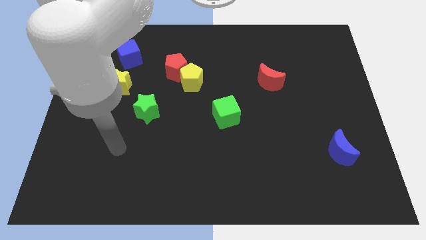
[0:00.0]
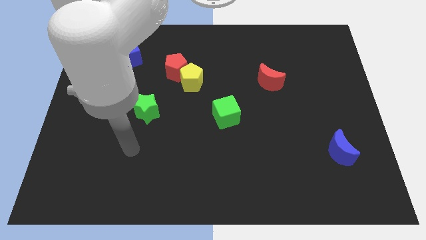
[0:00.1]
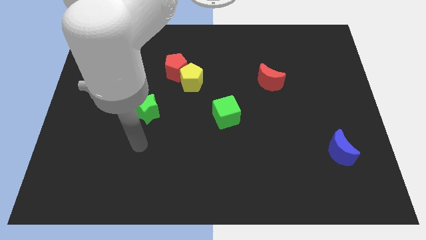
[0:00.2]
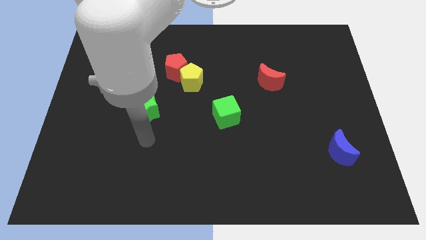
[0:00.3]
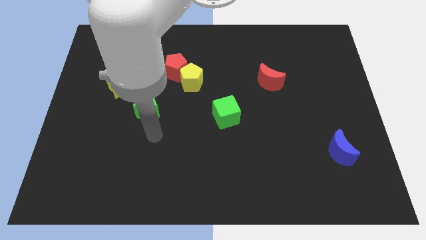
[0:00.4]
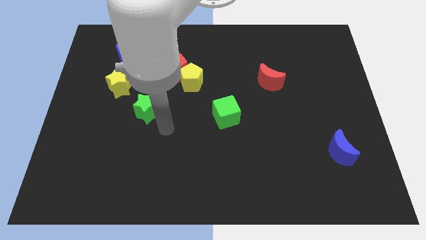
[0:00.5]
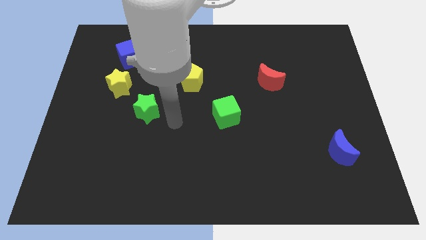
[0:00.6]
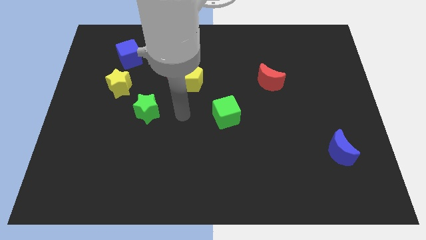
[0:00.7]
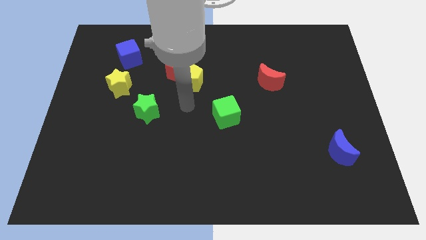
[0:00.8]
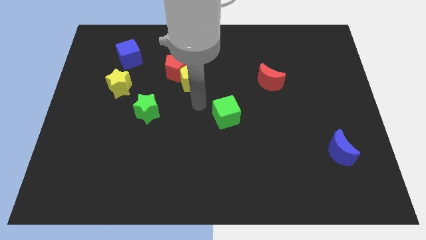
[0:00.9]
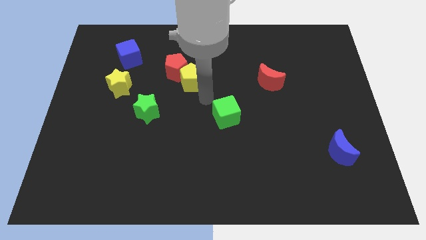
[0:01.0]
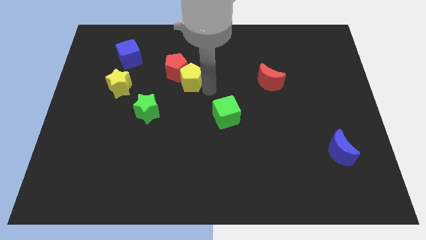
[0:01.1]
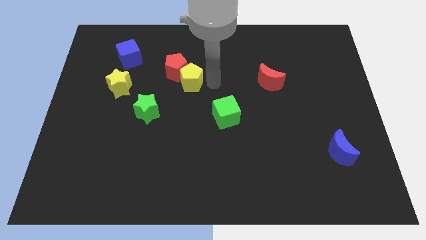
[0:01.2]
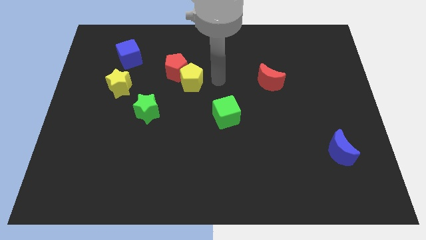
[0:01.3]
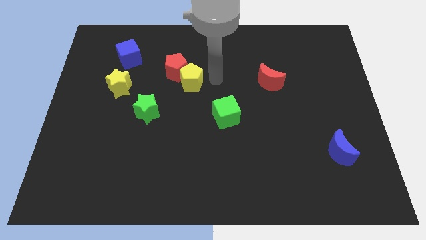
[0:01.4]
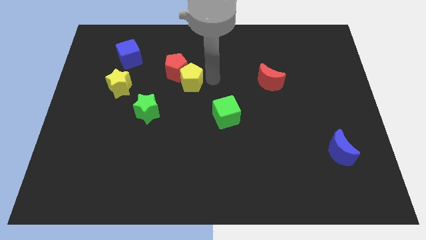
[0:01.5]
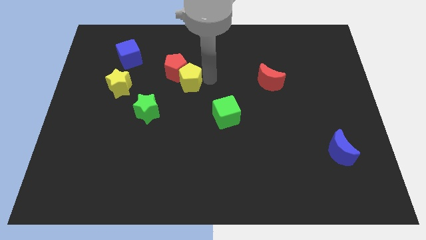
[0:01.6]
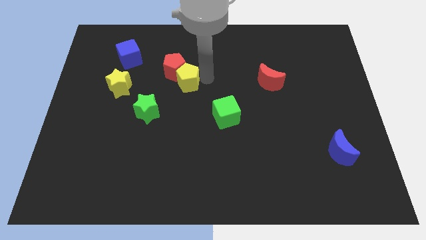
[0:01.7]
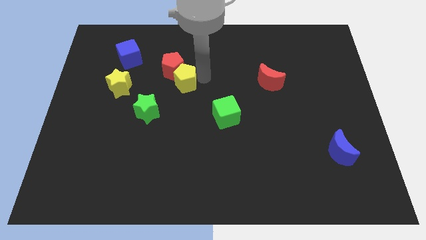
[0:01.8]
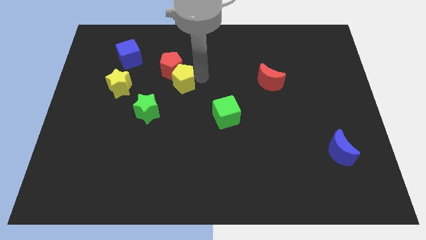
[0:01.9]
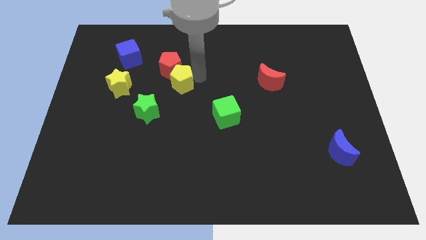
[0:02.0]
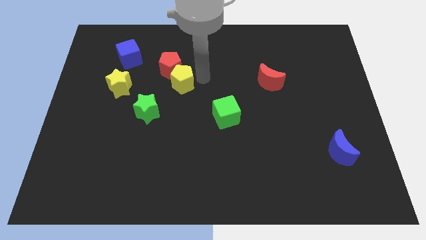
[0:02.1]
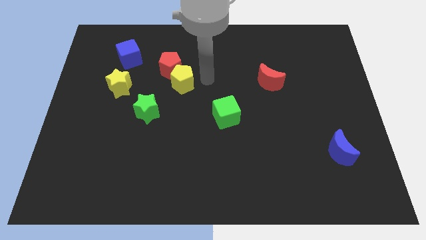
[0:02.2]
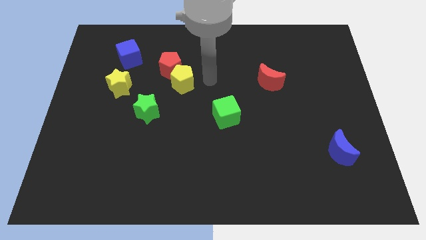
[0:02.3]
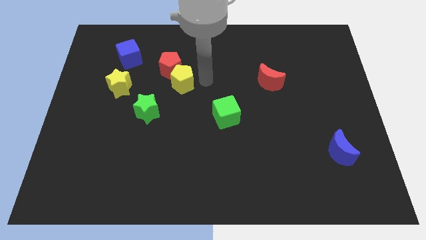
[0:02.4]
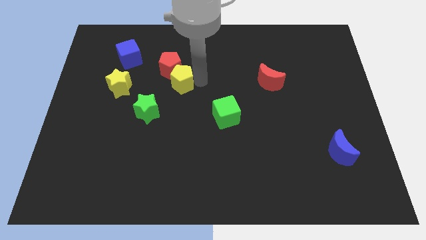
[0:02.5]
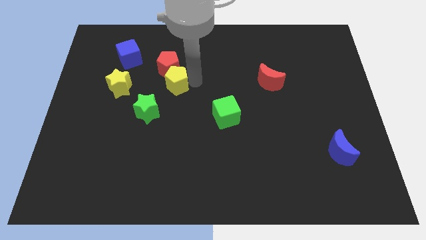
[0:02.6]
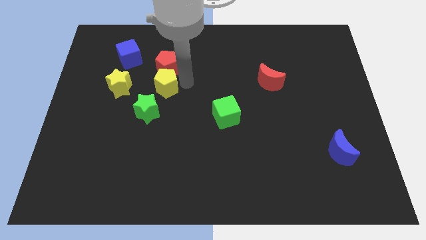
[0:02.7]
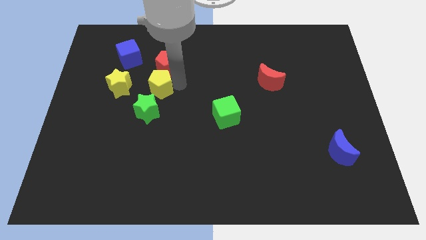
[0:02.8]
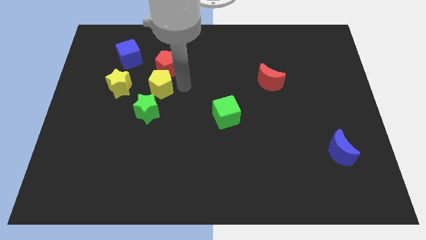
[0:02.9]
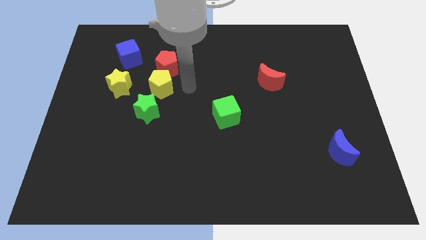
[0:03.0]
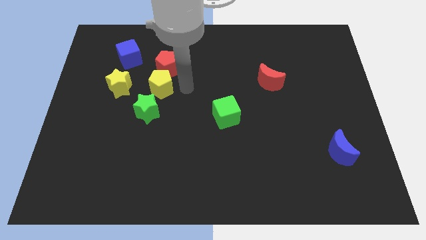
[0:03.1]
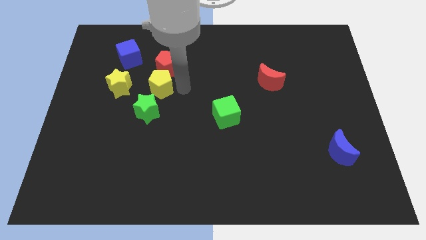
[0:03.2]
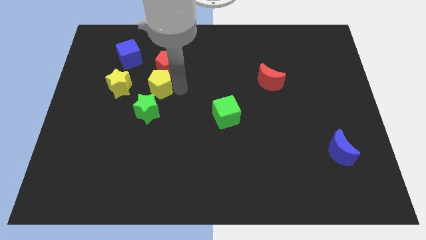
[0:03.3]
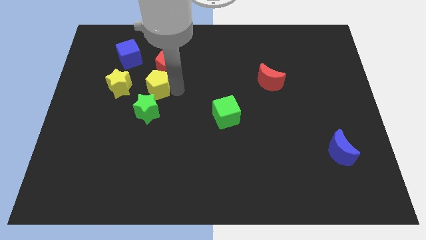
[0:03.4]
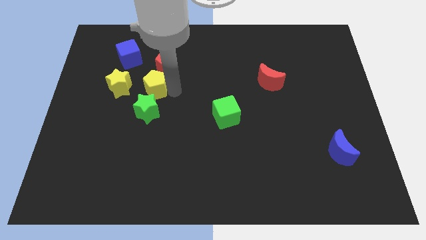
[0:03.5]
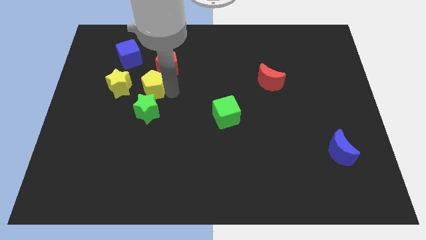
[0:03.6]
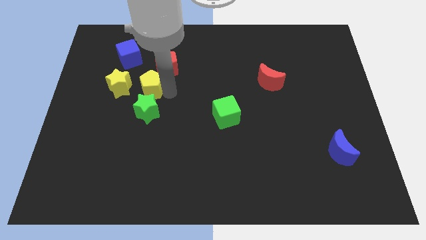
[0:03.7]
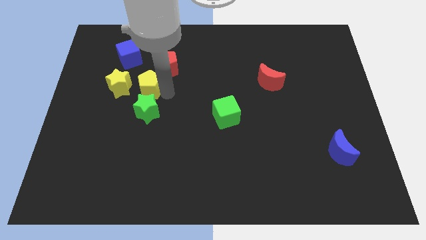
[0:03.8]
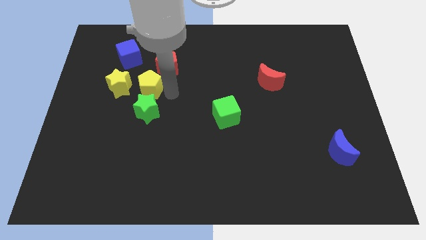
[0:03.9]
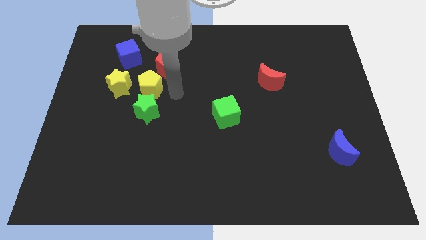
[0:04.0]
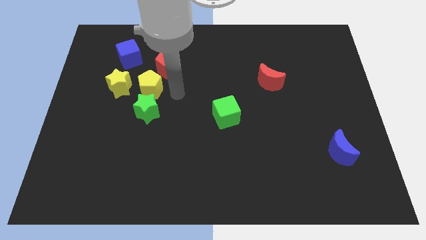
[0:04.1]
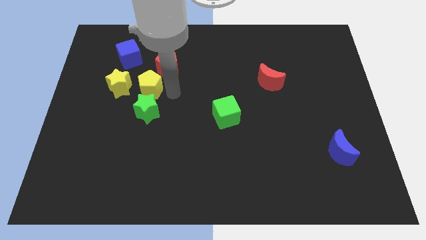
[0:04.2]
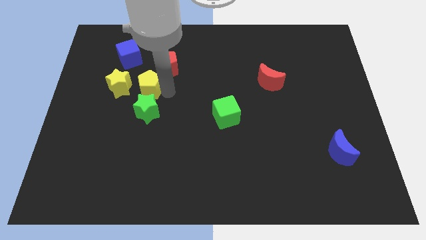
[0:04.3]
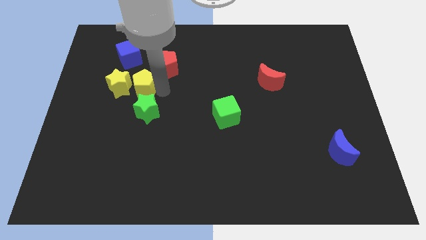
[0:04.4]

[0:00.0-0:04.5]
put the yellow pentagon to the yellow star

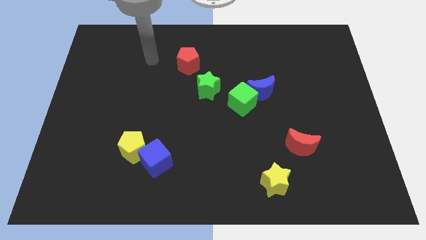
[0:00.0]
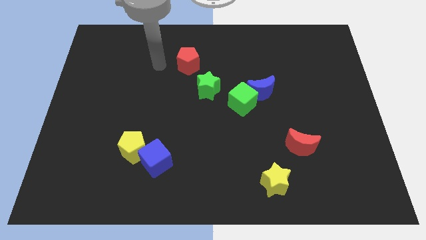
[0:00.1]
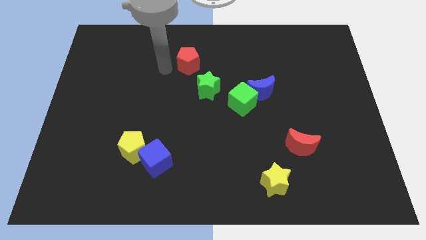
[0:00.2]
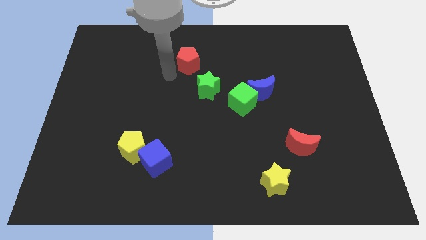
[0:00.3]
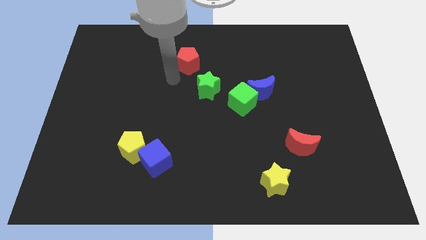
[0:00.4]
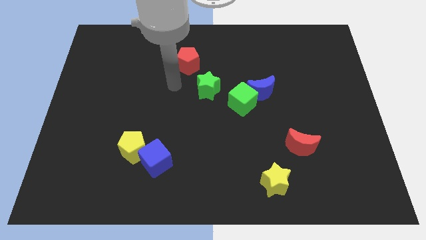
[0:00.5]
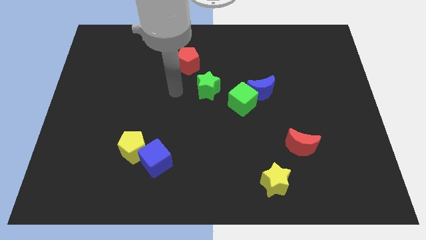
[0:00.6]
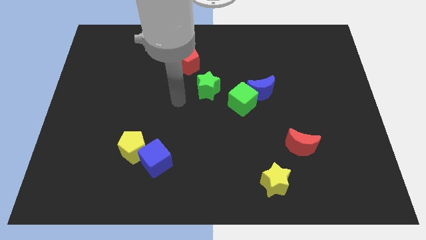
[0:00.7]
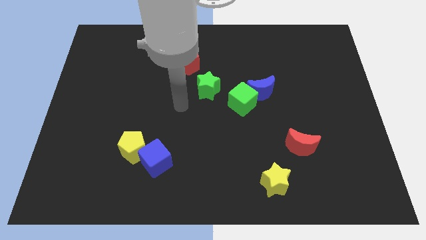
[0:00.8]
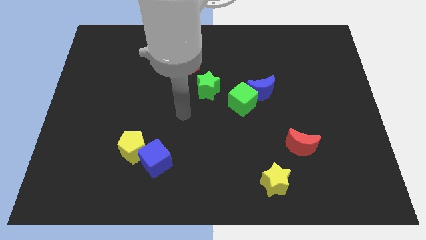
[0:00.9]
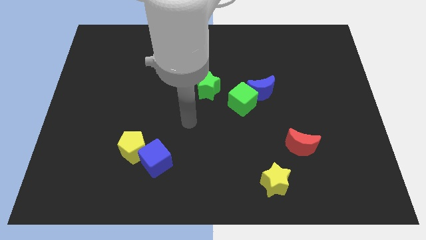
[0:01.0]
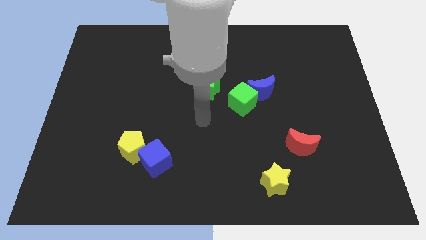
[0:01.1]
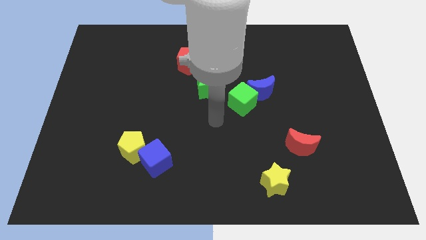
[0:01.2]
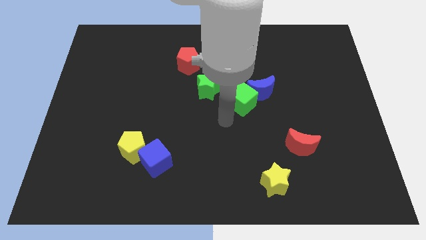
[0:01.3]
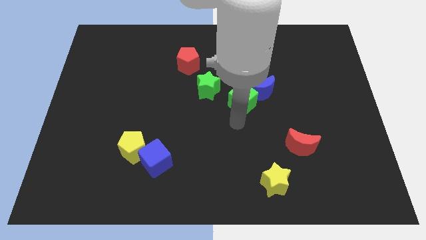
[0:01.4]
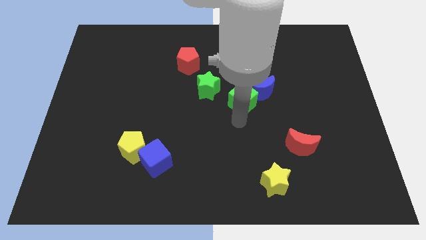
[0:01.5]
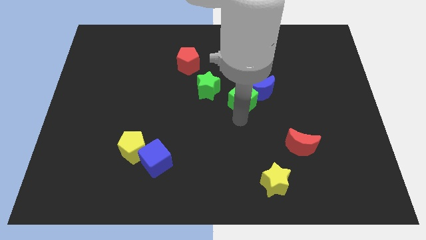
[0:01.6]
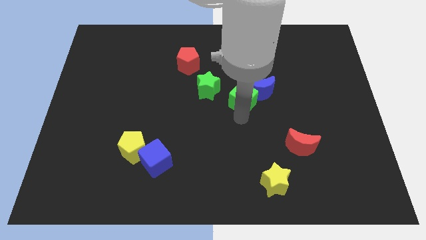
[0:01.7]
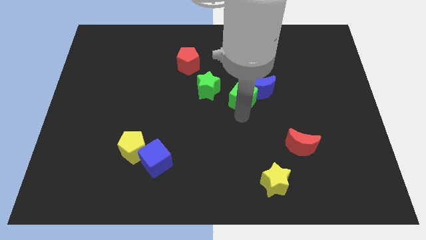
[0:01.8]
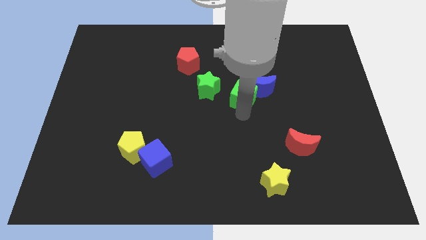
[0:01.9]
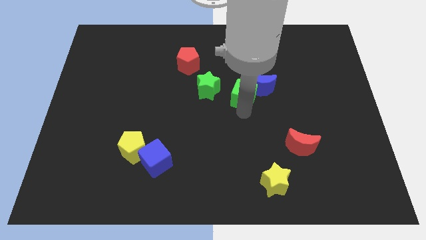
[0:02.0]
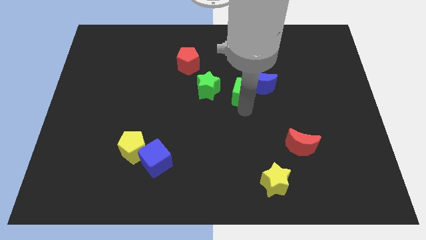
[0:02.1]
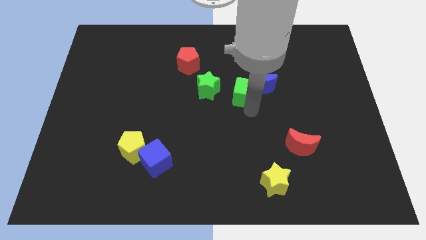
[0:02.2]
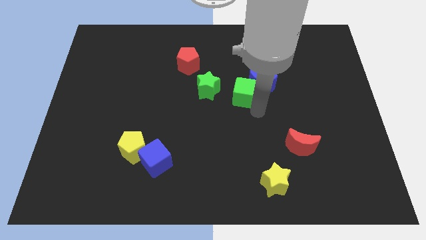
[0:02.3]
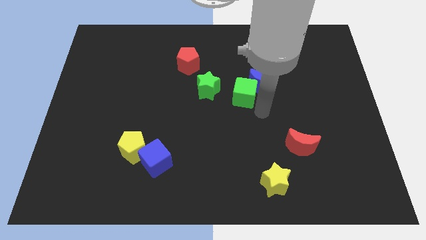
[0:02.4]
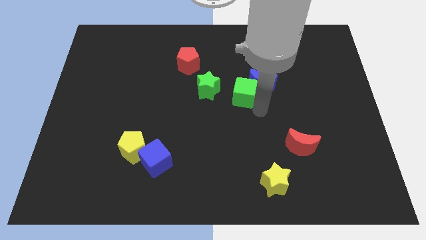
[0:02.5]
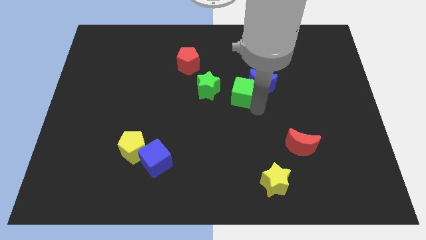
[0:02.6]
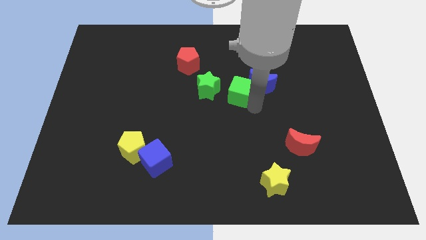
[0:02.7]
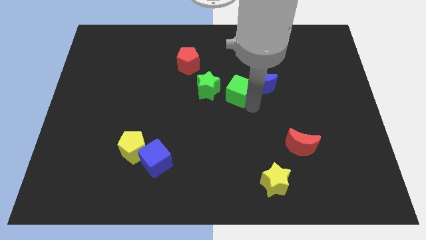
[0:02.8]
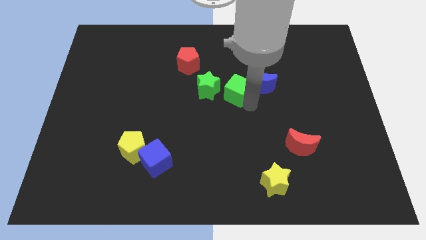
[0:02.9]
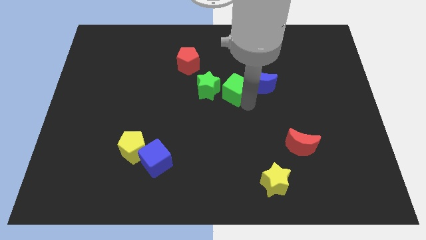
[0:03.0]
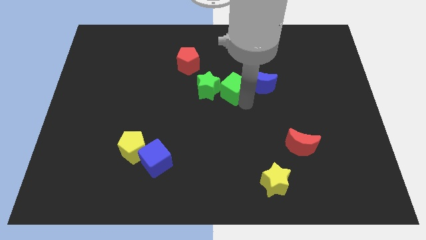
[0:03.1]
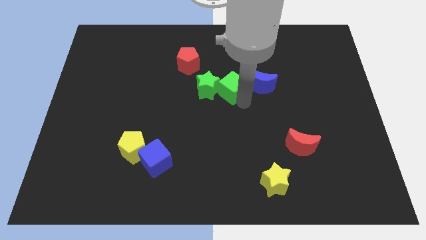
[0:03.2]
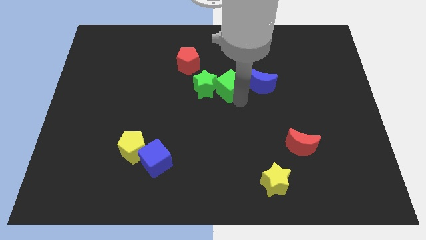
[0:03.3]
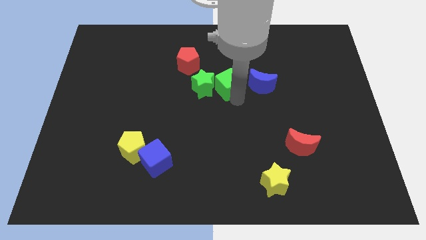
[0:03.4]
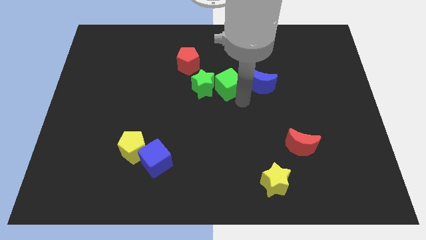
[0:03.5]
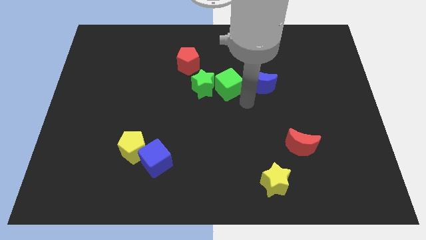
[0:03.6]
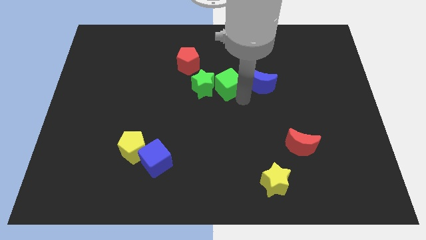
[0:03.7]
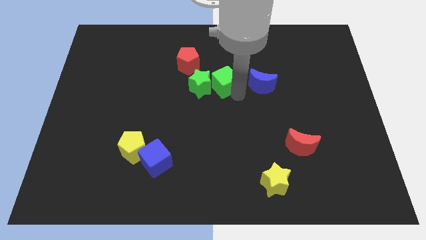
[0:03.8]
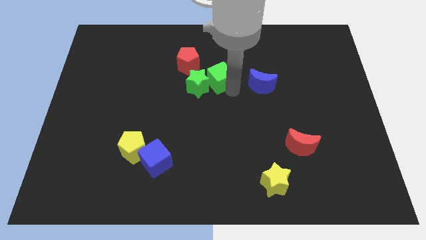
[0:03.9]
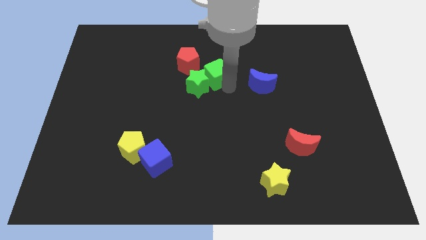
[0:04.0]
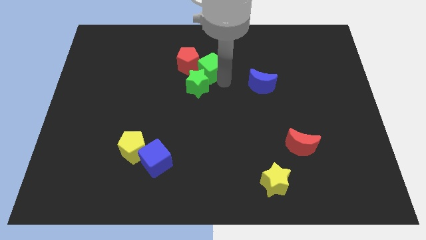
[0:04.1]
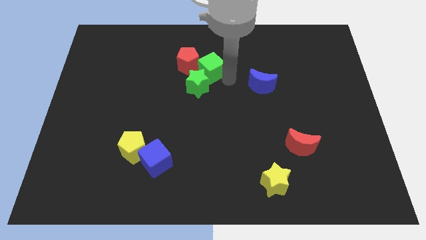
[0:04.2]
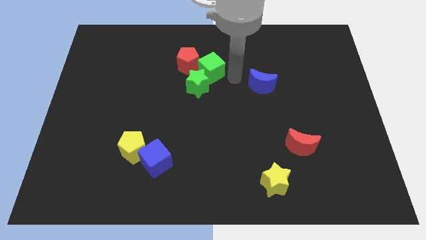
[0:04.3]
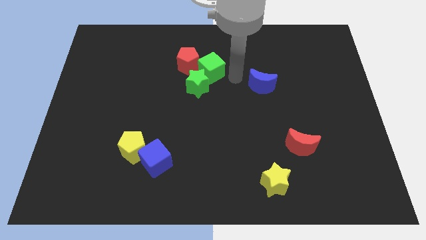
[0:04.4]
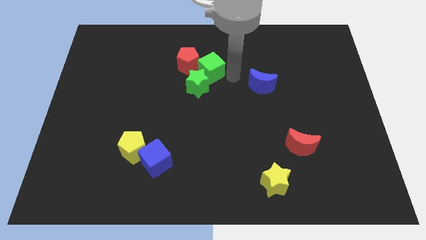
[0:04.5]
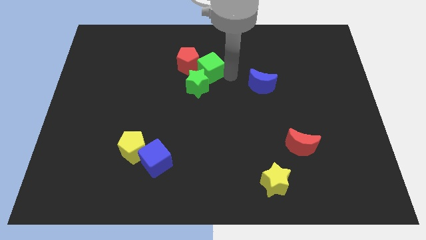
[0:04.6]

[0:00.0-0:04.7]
slide the green cube towards the red pentagon
